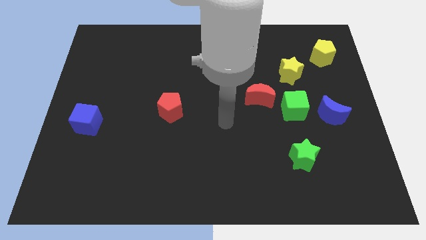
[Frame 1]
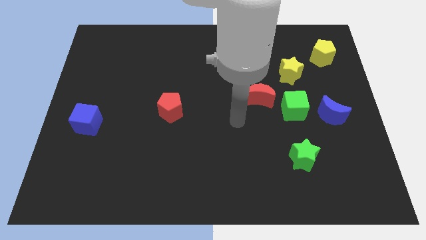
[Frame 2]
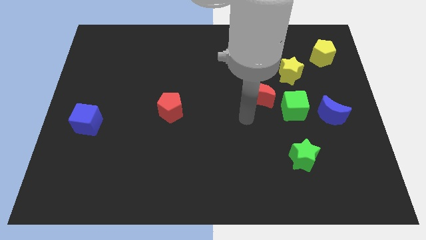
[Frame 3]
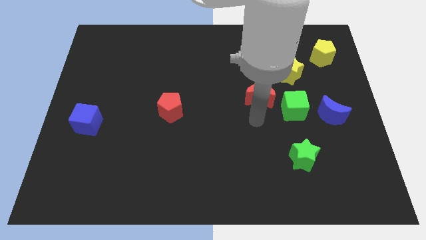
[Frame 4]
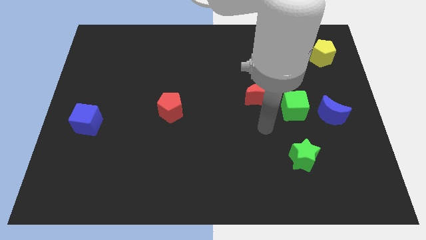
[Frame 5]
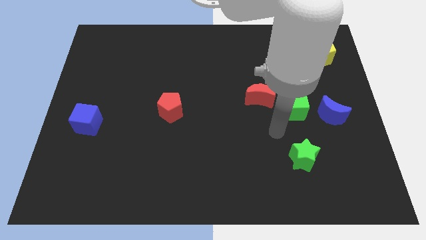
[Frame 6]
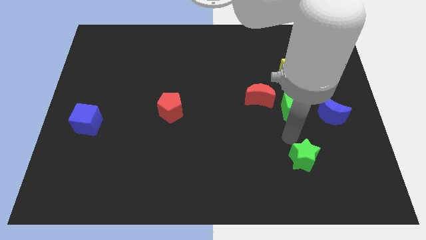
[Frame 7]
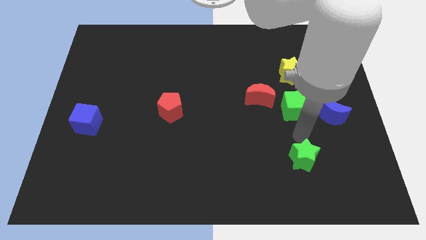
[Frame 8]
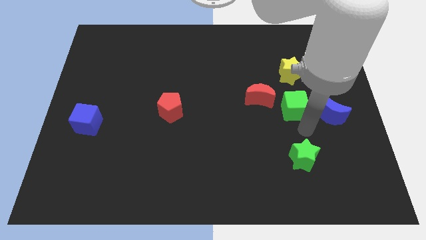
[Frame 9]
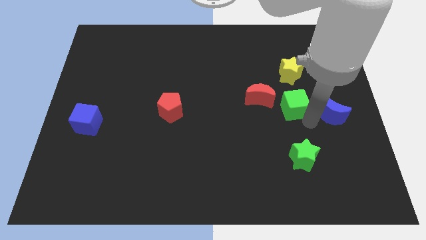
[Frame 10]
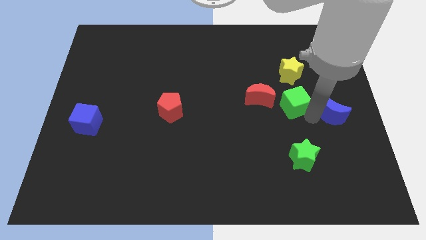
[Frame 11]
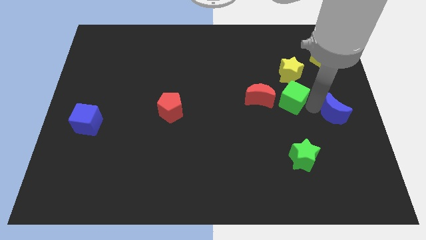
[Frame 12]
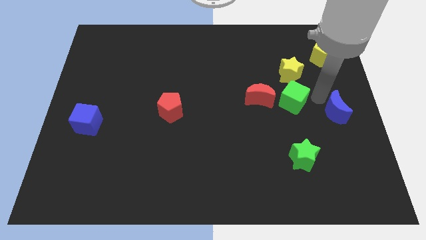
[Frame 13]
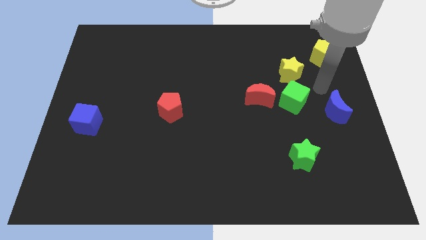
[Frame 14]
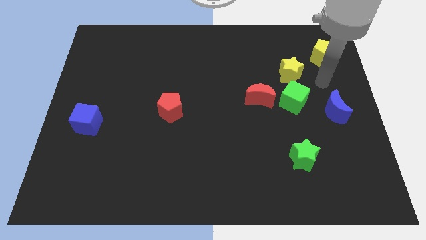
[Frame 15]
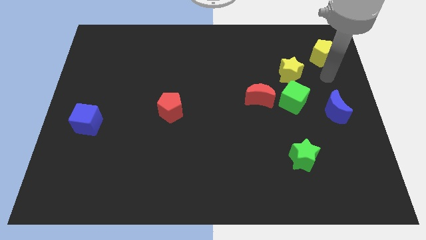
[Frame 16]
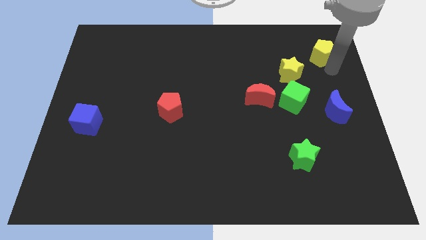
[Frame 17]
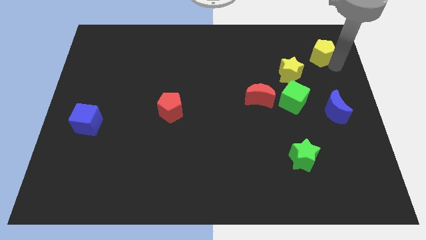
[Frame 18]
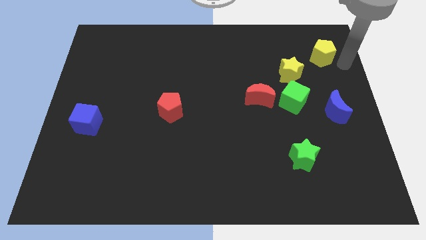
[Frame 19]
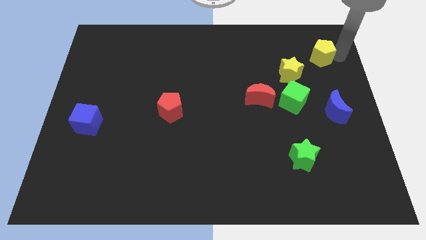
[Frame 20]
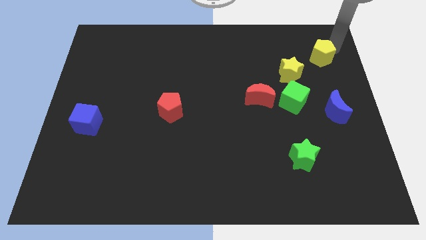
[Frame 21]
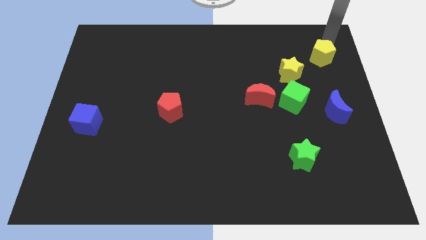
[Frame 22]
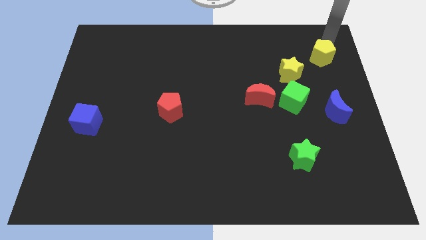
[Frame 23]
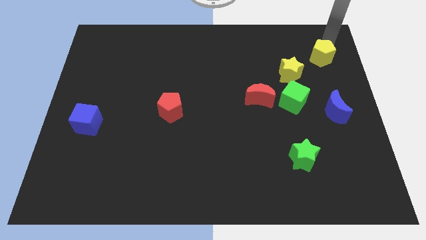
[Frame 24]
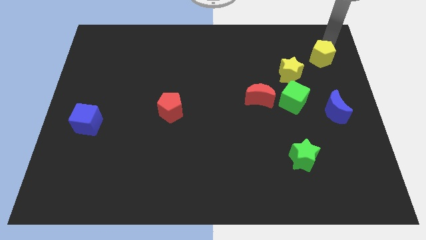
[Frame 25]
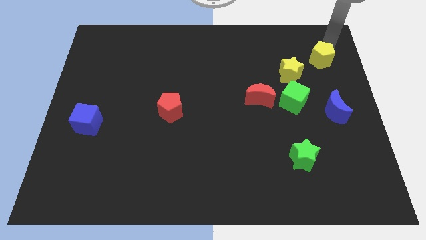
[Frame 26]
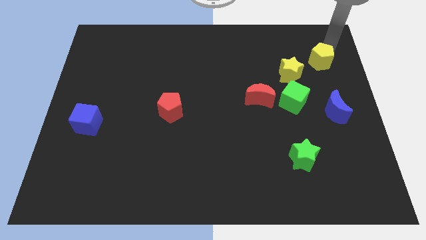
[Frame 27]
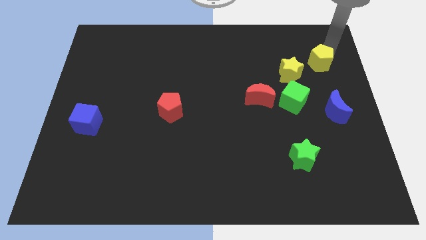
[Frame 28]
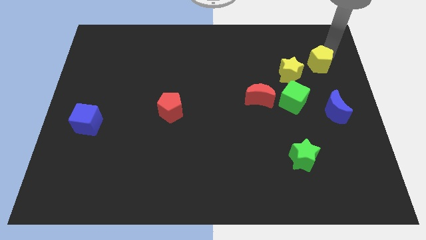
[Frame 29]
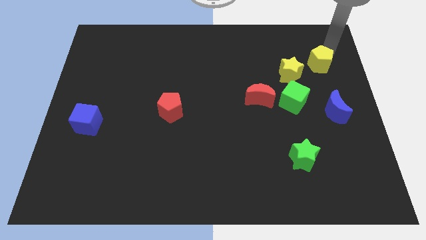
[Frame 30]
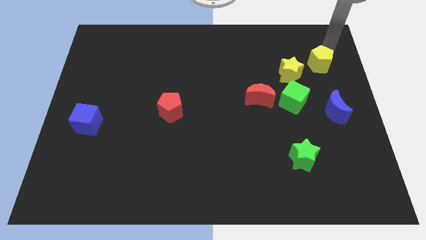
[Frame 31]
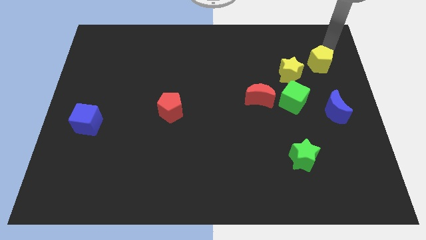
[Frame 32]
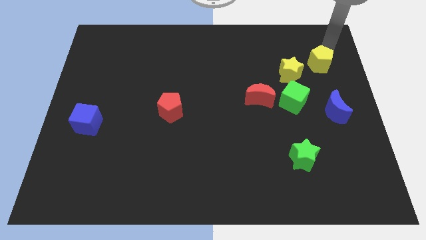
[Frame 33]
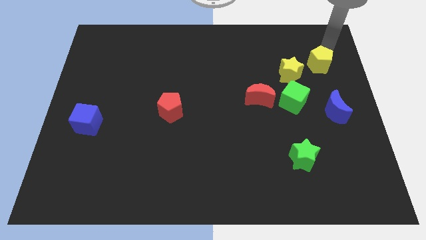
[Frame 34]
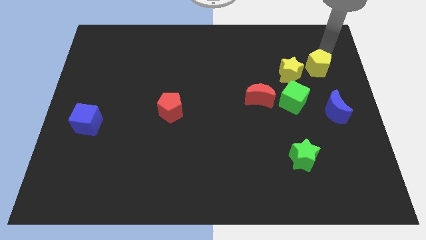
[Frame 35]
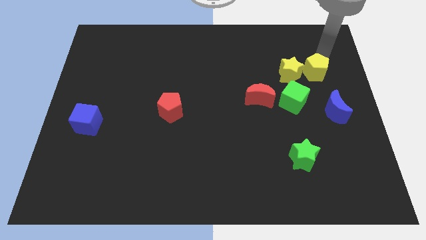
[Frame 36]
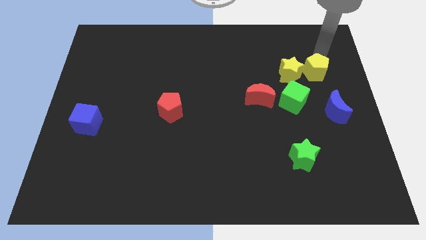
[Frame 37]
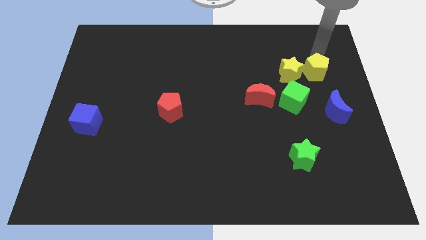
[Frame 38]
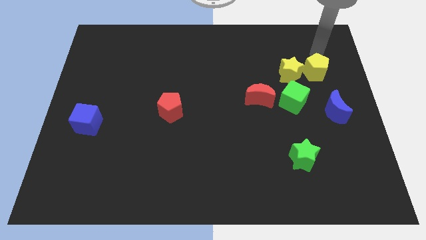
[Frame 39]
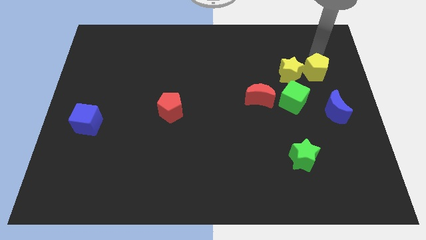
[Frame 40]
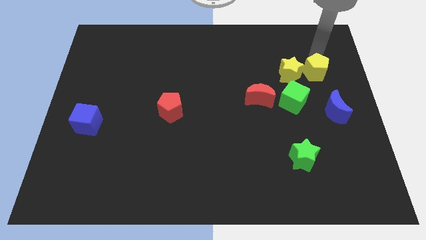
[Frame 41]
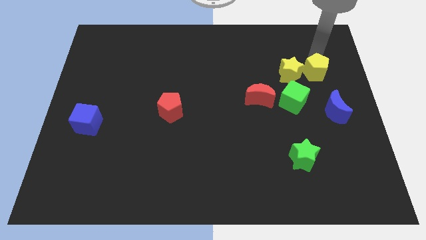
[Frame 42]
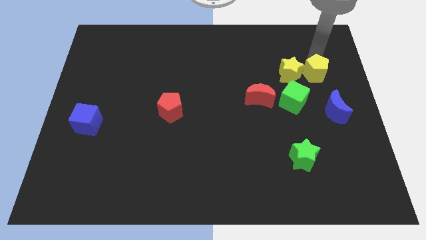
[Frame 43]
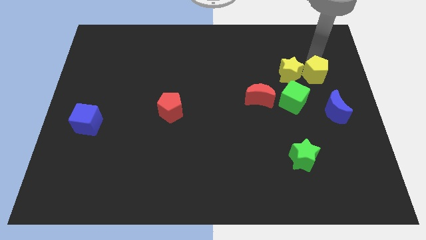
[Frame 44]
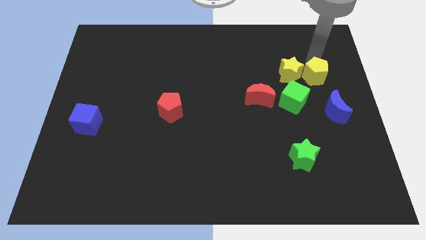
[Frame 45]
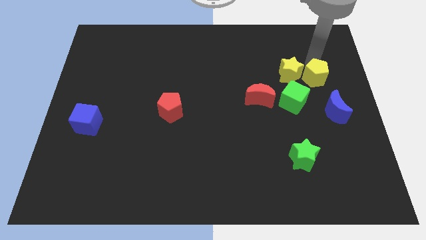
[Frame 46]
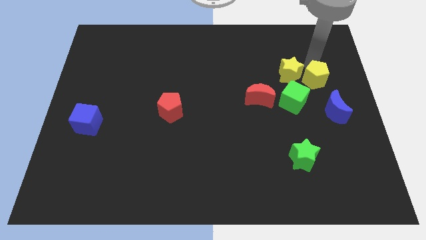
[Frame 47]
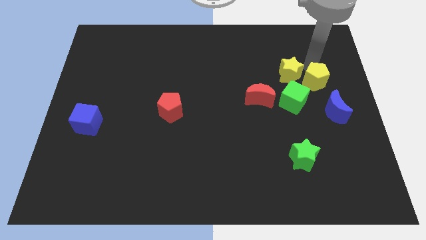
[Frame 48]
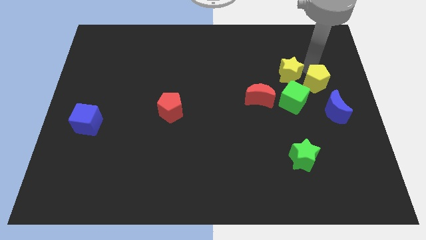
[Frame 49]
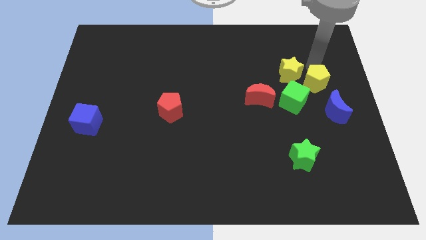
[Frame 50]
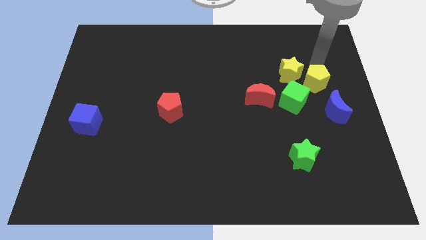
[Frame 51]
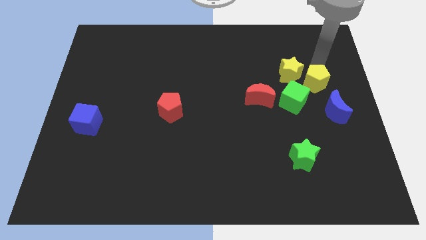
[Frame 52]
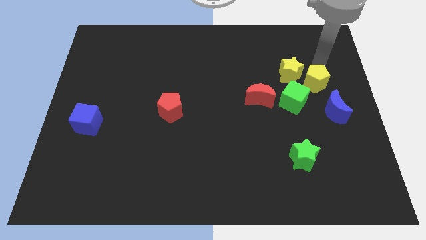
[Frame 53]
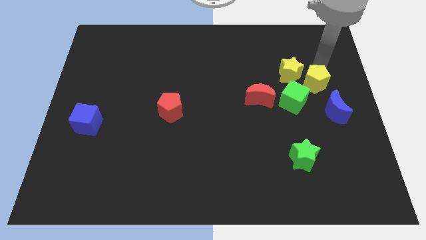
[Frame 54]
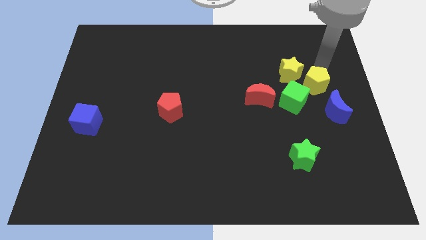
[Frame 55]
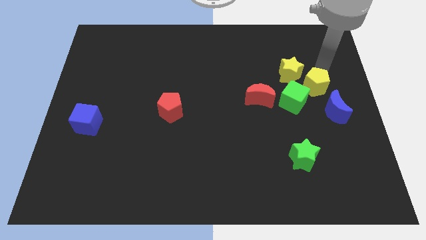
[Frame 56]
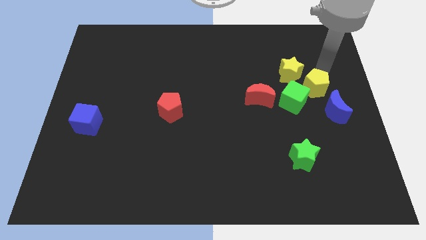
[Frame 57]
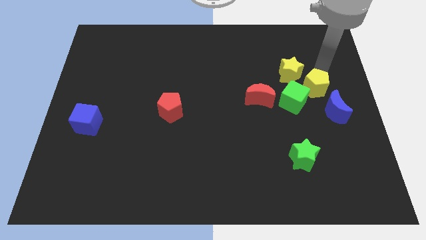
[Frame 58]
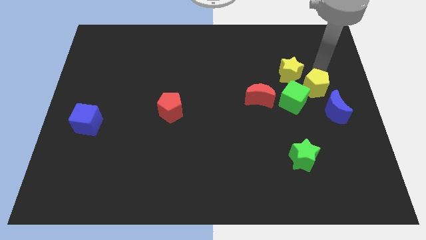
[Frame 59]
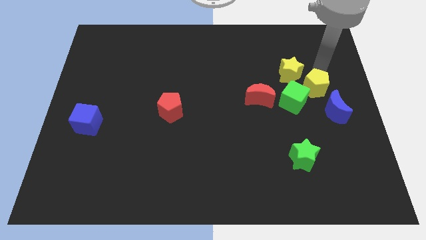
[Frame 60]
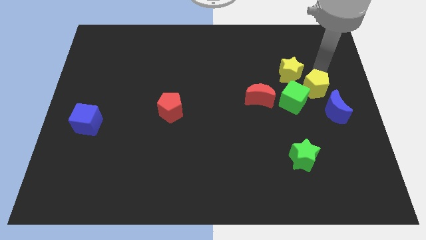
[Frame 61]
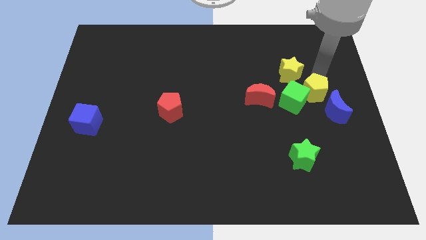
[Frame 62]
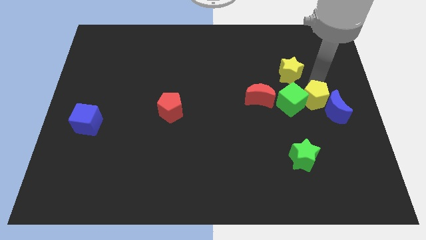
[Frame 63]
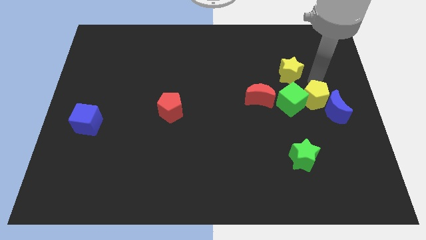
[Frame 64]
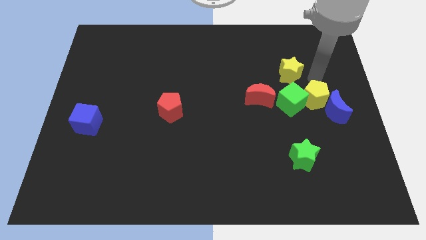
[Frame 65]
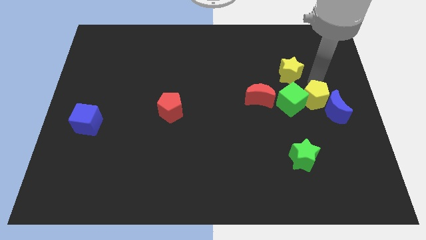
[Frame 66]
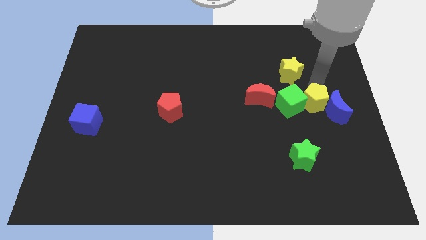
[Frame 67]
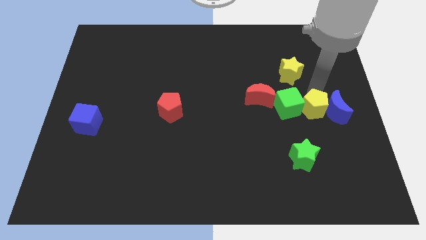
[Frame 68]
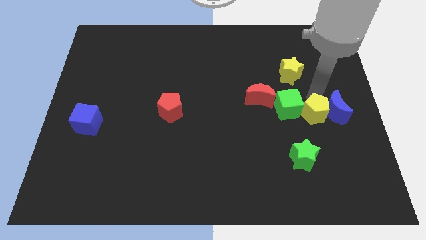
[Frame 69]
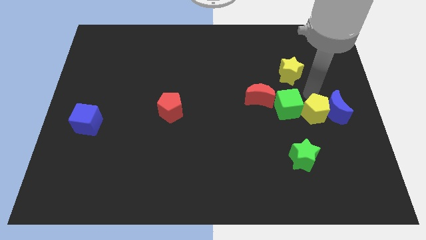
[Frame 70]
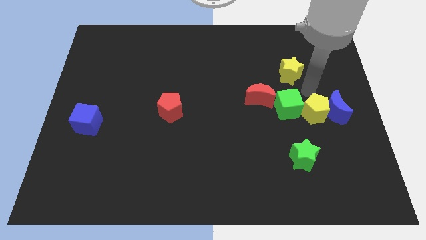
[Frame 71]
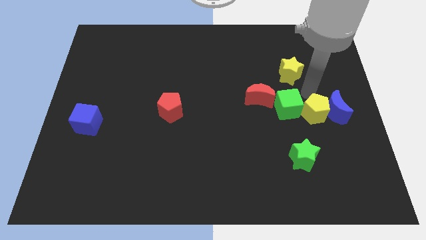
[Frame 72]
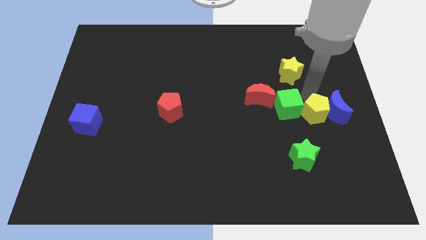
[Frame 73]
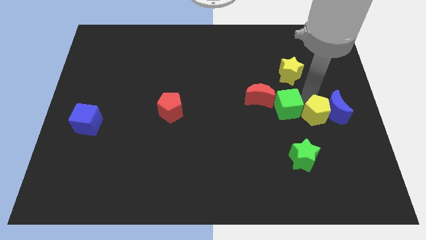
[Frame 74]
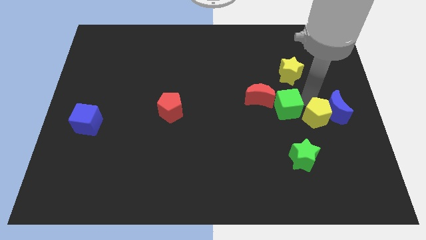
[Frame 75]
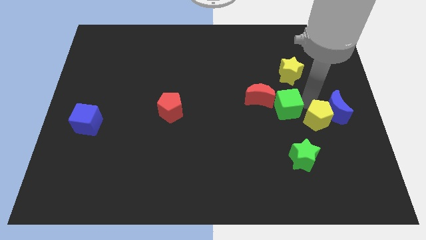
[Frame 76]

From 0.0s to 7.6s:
push the yellow pentagon to the top right of the green star
